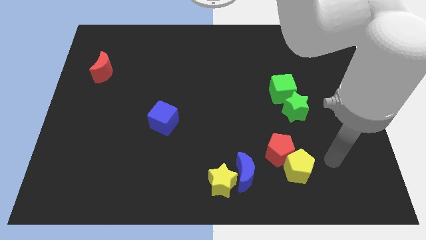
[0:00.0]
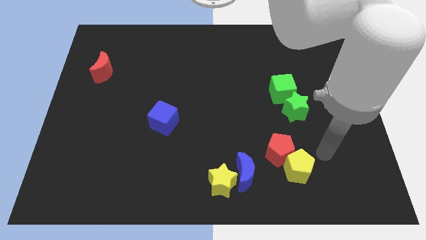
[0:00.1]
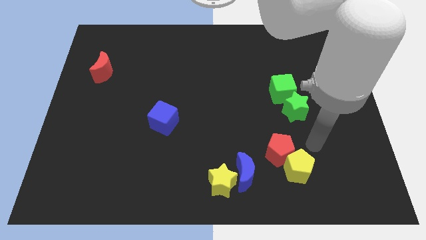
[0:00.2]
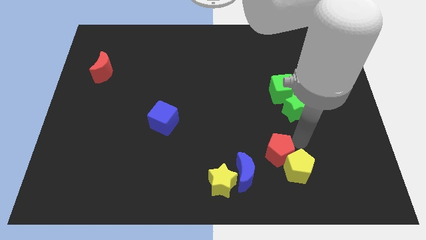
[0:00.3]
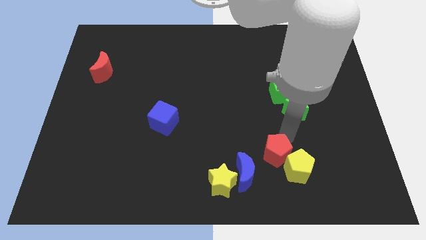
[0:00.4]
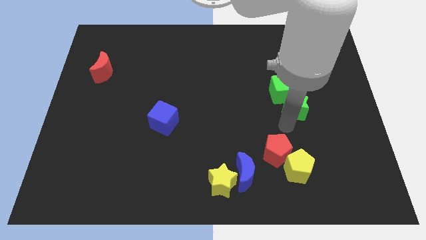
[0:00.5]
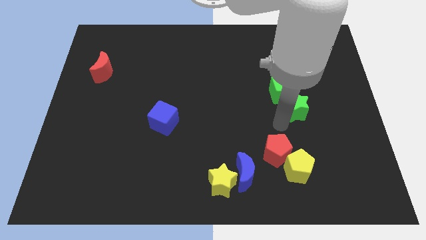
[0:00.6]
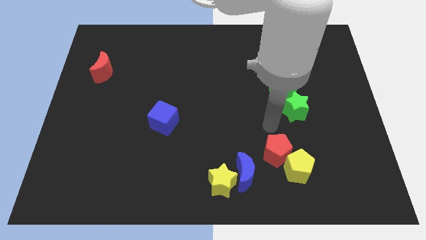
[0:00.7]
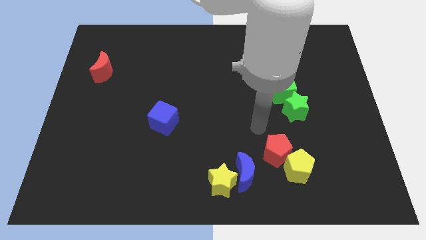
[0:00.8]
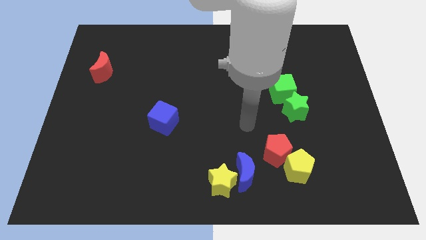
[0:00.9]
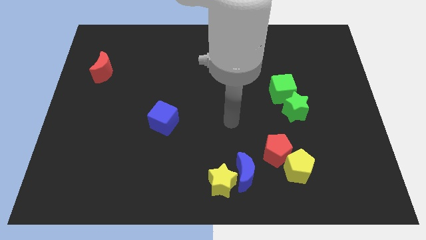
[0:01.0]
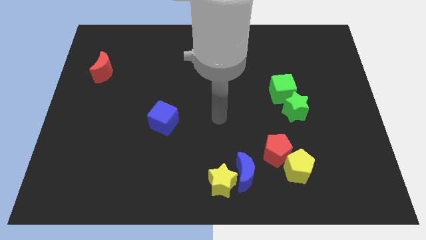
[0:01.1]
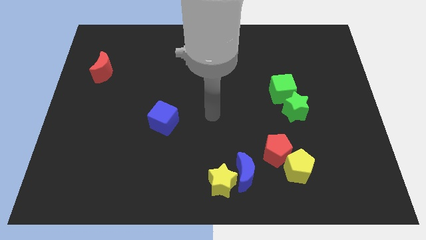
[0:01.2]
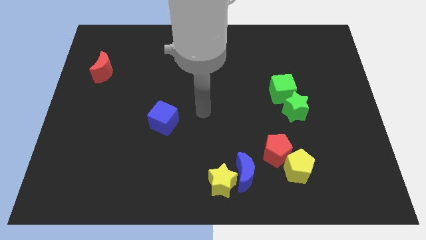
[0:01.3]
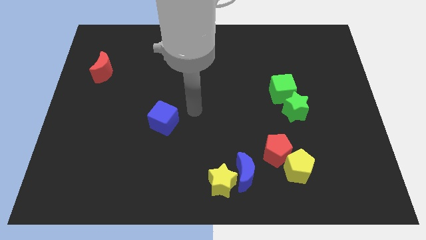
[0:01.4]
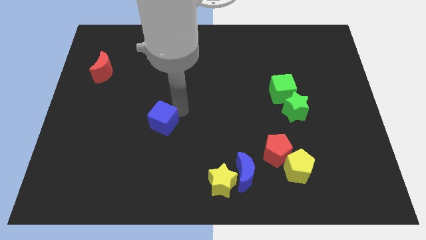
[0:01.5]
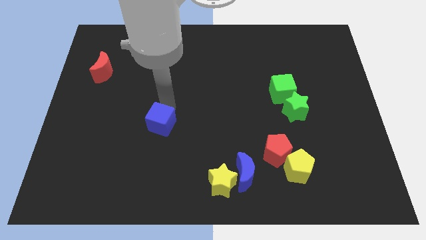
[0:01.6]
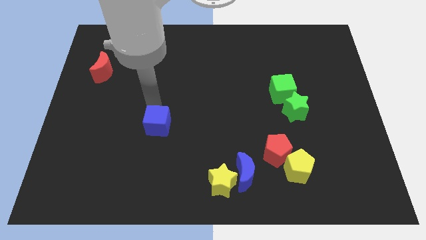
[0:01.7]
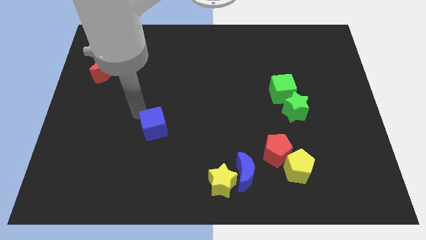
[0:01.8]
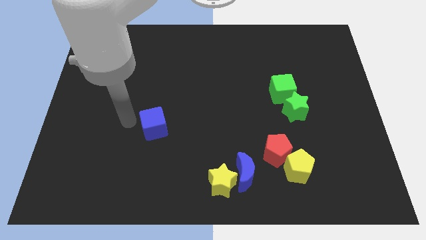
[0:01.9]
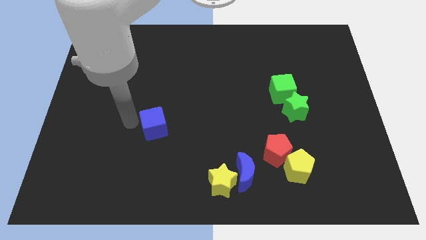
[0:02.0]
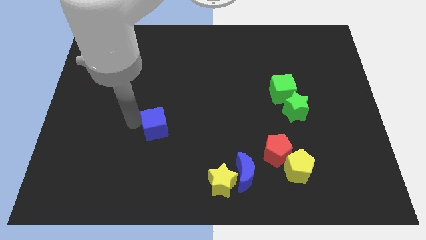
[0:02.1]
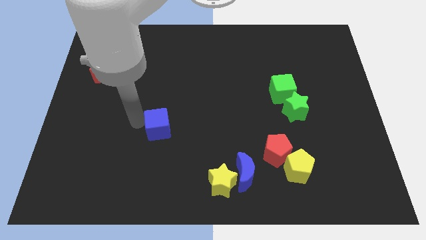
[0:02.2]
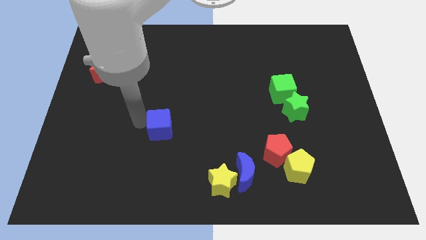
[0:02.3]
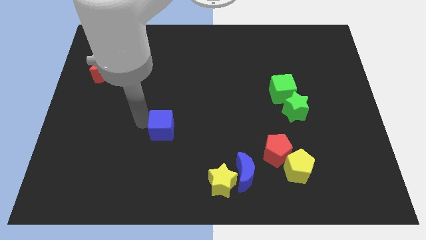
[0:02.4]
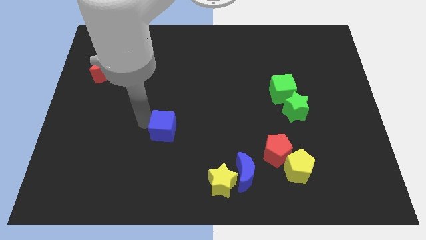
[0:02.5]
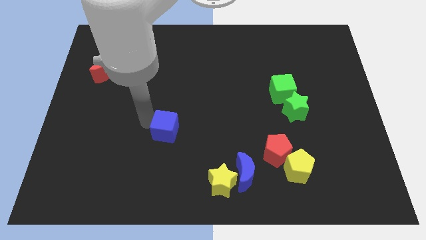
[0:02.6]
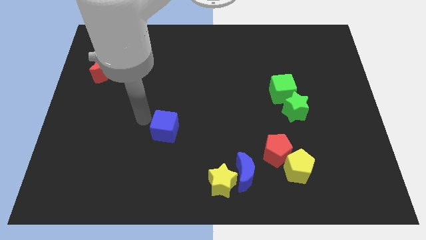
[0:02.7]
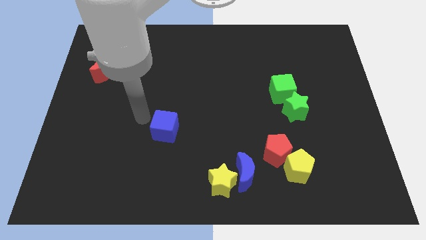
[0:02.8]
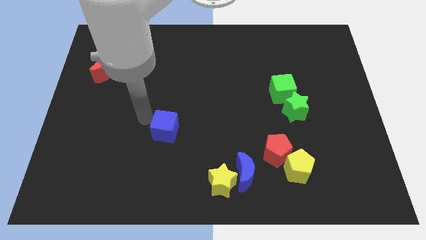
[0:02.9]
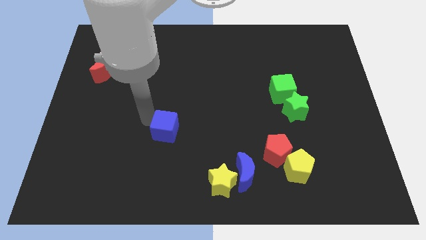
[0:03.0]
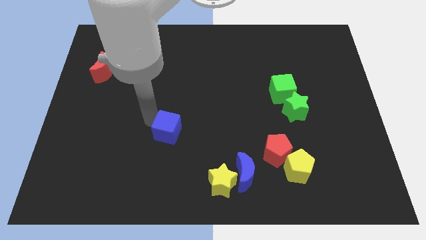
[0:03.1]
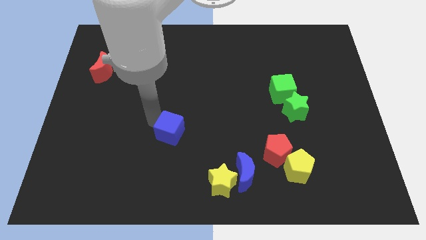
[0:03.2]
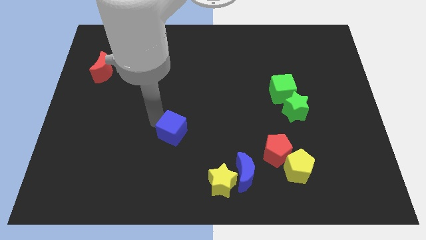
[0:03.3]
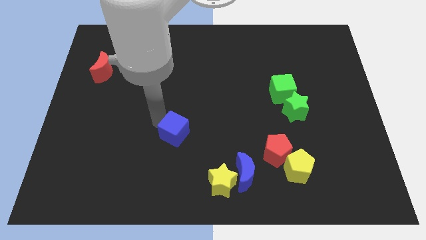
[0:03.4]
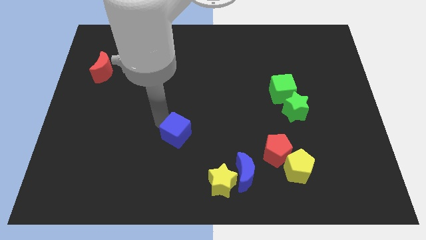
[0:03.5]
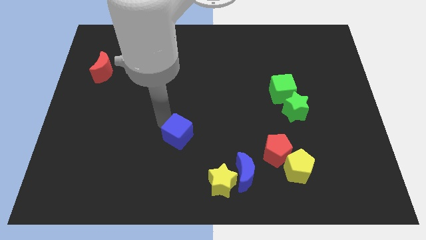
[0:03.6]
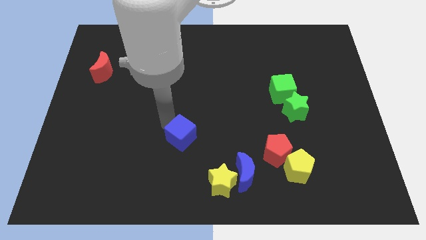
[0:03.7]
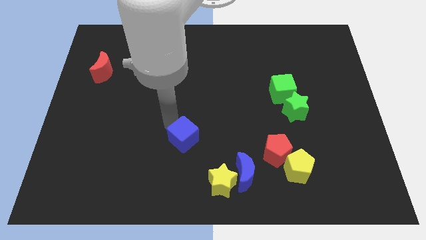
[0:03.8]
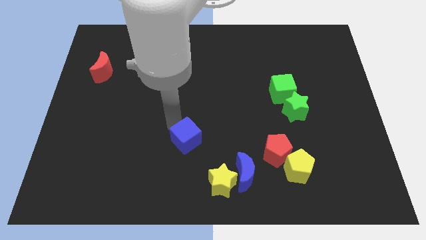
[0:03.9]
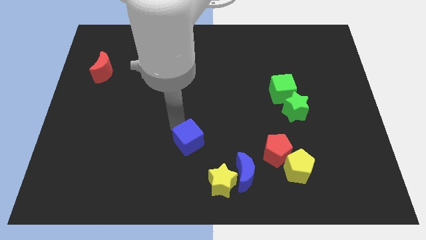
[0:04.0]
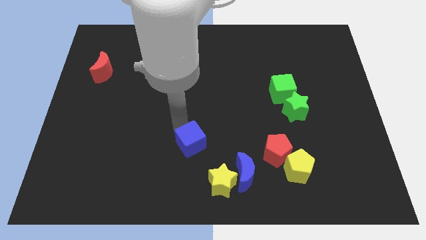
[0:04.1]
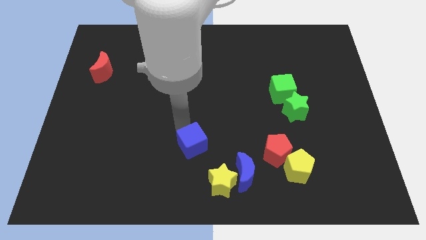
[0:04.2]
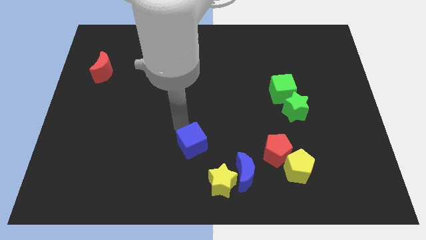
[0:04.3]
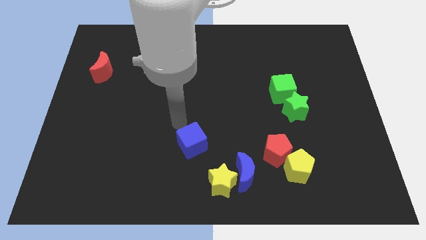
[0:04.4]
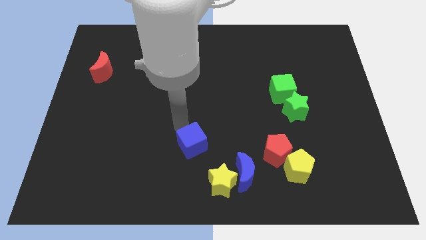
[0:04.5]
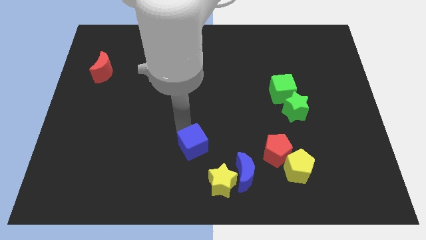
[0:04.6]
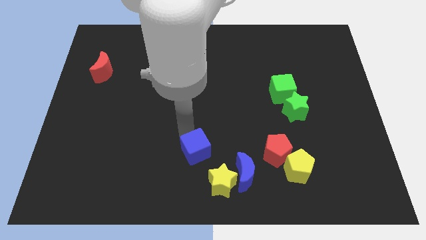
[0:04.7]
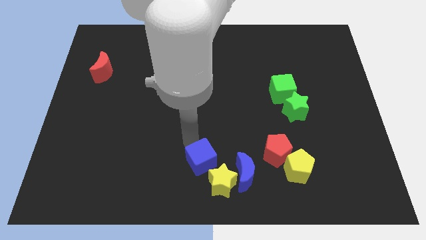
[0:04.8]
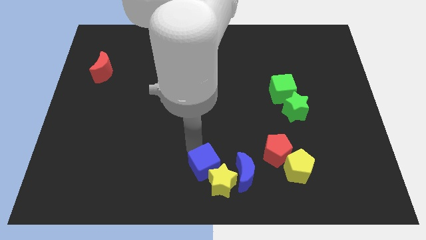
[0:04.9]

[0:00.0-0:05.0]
move the blue cube close to the yellow star

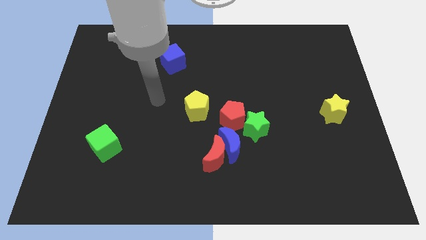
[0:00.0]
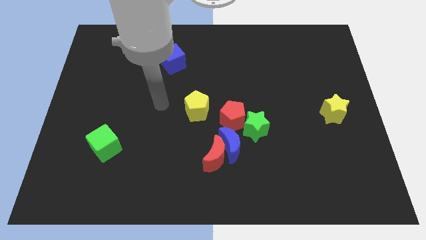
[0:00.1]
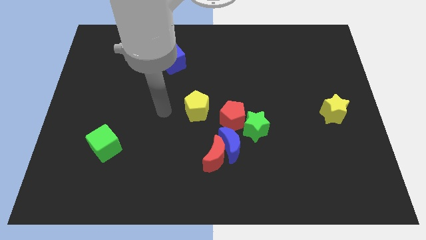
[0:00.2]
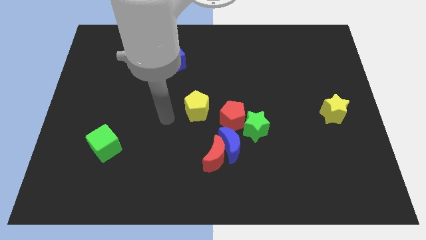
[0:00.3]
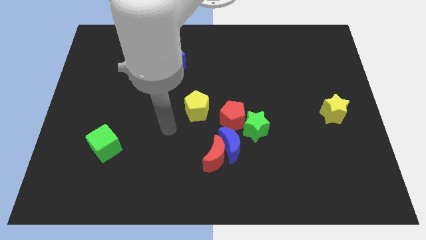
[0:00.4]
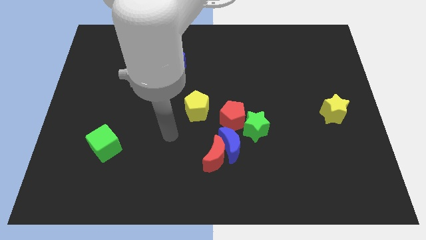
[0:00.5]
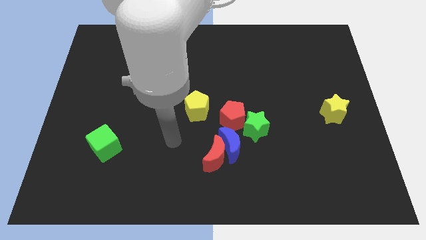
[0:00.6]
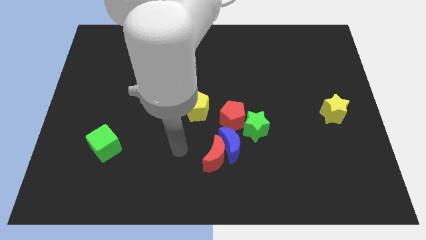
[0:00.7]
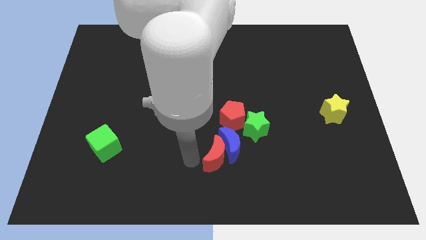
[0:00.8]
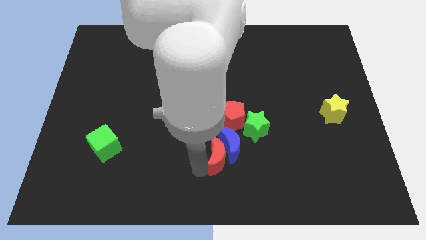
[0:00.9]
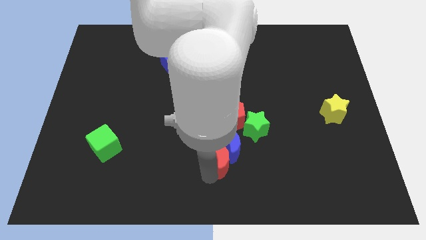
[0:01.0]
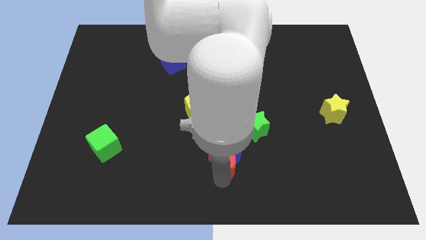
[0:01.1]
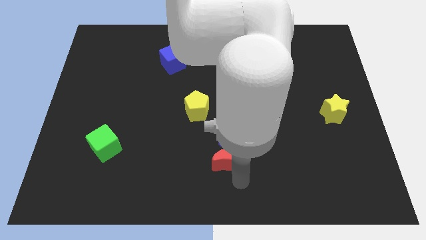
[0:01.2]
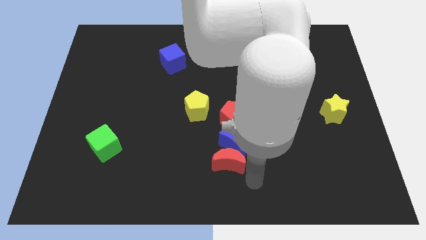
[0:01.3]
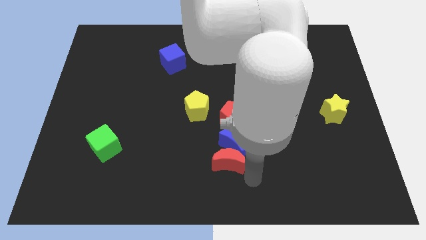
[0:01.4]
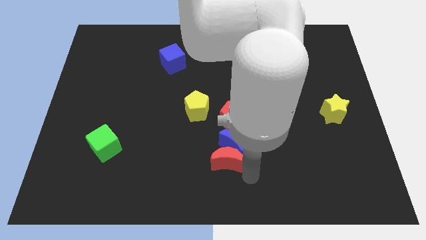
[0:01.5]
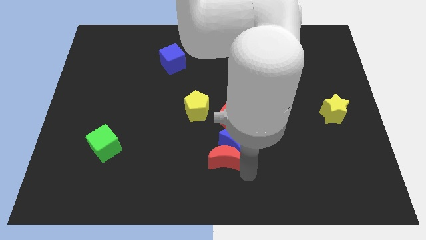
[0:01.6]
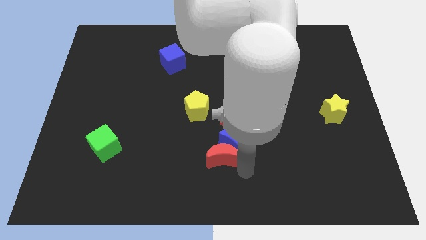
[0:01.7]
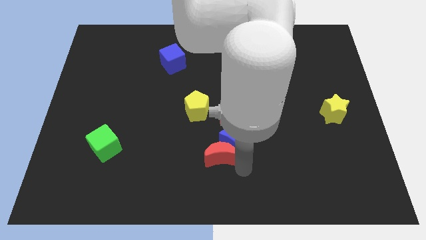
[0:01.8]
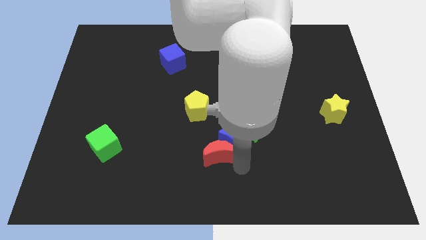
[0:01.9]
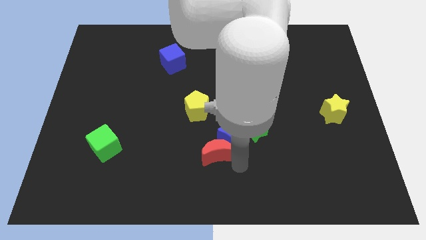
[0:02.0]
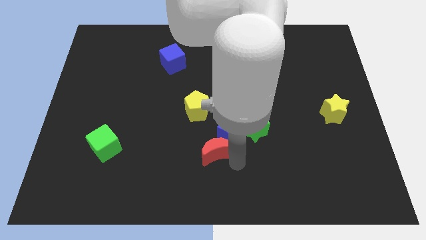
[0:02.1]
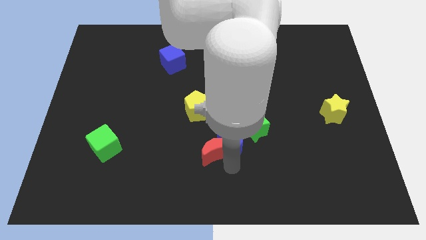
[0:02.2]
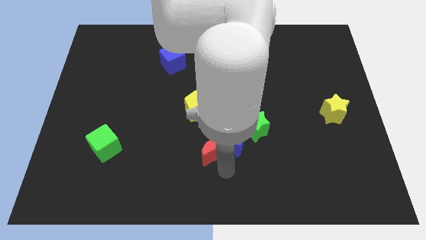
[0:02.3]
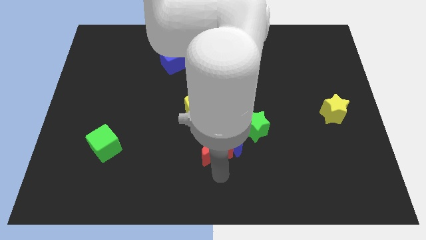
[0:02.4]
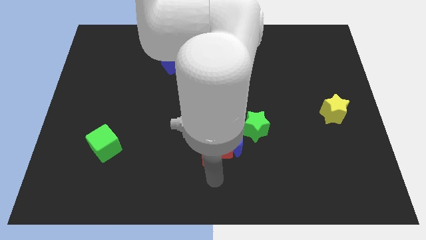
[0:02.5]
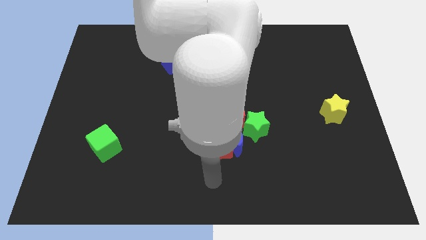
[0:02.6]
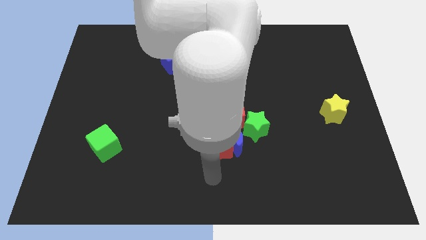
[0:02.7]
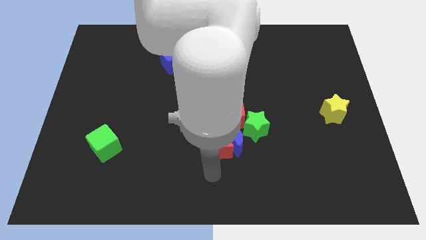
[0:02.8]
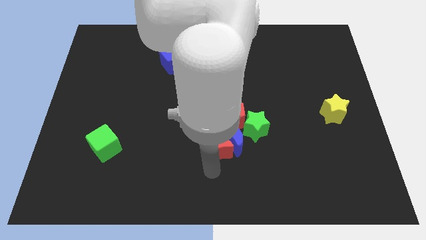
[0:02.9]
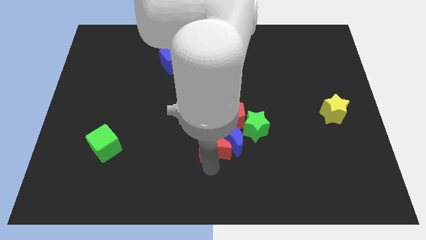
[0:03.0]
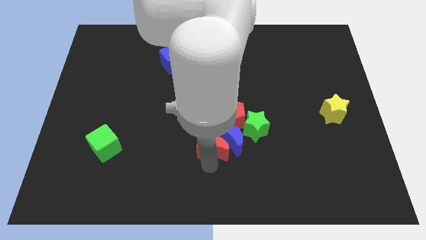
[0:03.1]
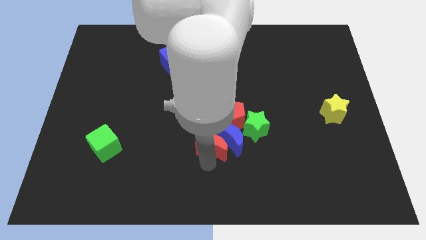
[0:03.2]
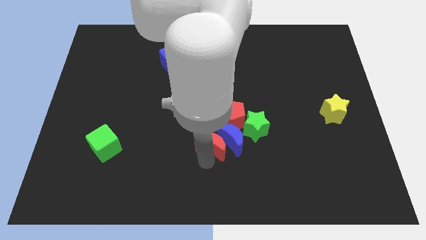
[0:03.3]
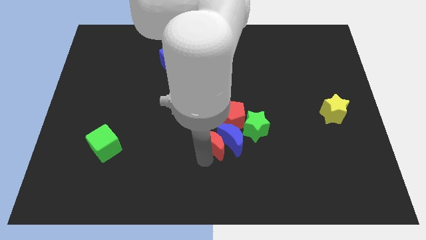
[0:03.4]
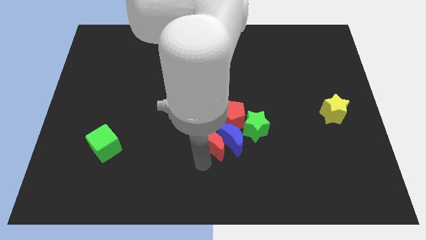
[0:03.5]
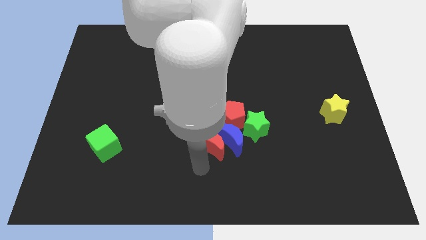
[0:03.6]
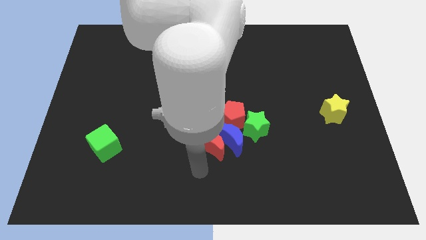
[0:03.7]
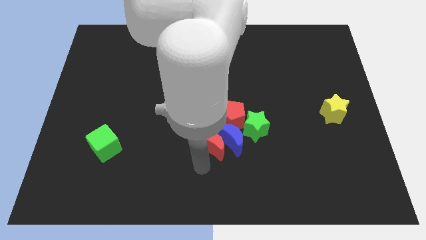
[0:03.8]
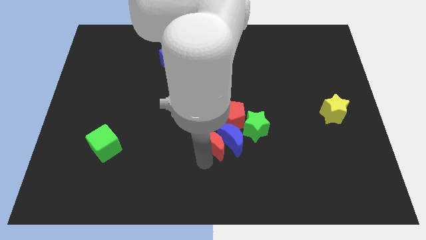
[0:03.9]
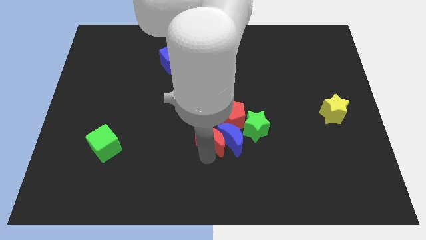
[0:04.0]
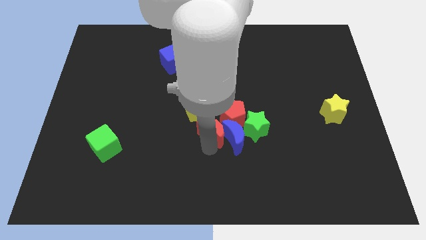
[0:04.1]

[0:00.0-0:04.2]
move the red moon close to the red pentagon
